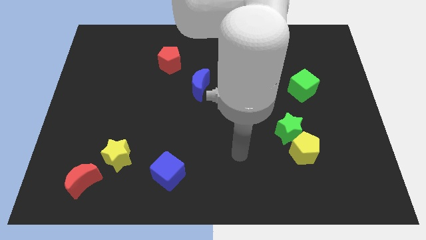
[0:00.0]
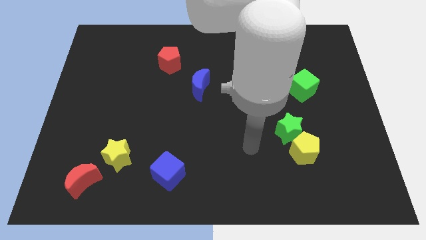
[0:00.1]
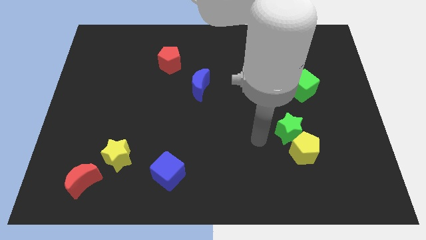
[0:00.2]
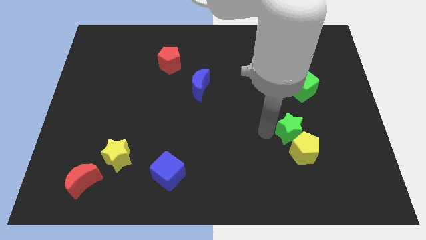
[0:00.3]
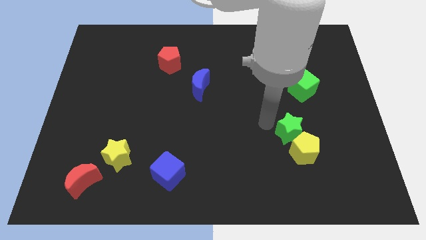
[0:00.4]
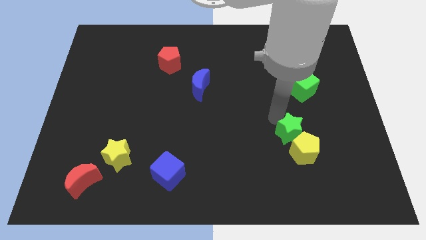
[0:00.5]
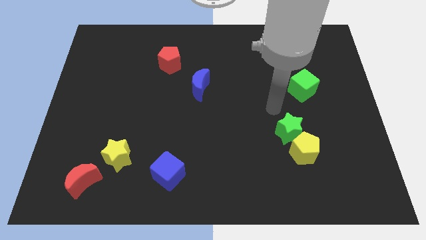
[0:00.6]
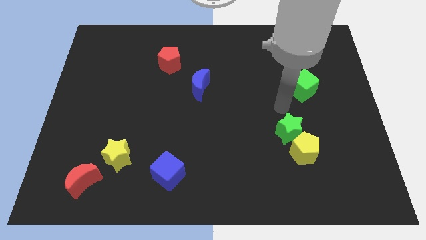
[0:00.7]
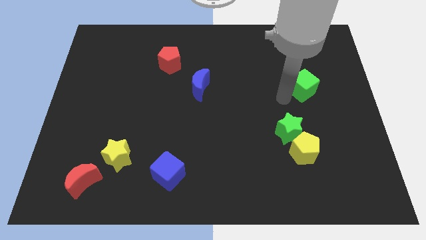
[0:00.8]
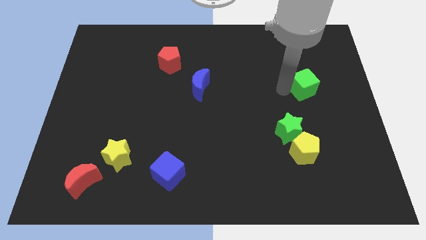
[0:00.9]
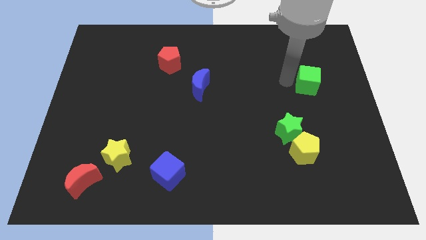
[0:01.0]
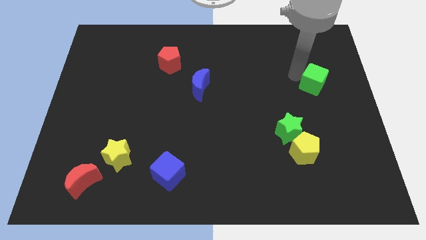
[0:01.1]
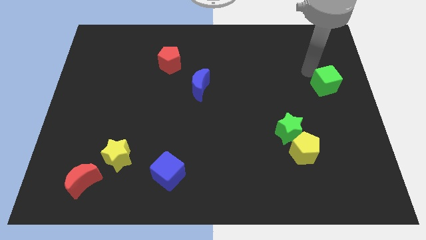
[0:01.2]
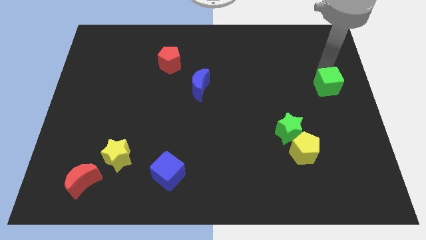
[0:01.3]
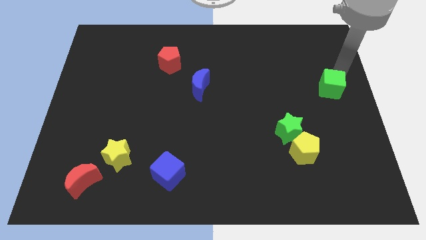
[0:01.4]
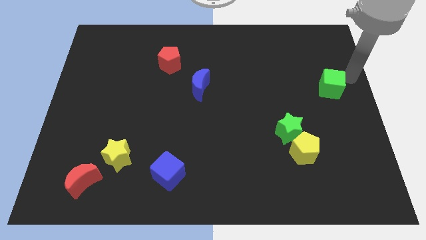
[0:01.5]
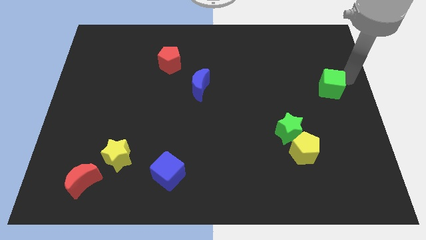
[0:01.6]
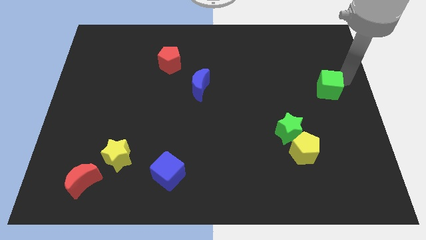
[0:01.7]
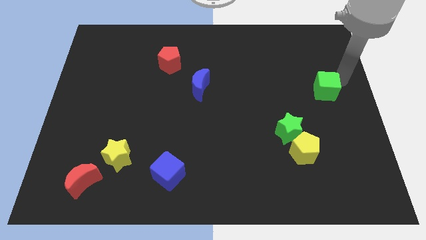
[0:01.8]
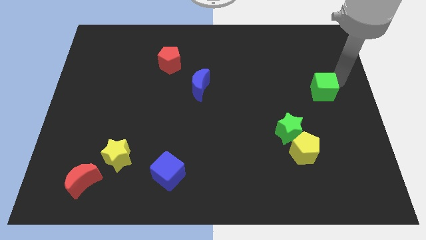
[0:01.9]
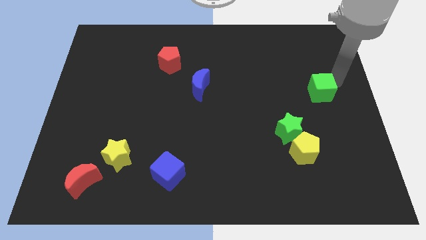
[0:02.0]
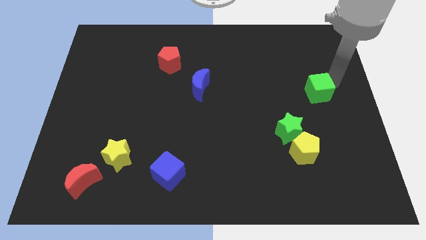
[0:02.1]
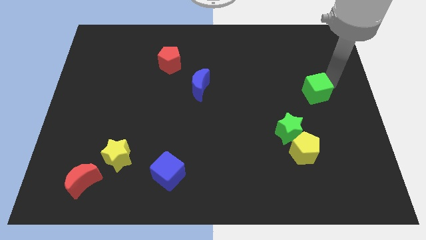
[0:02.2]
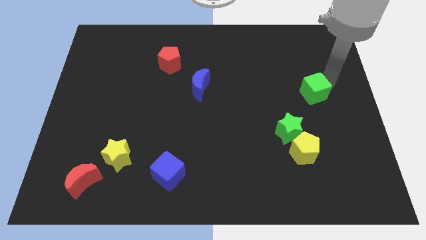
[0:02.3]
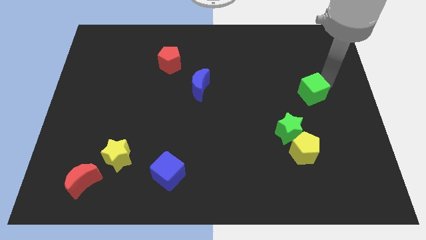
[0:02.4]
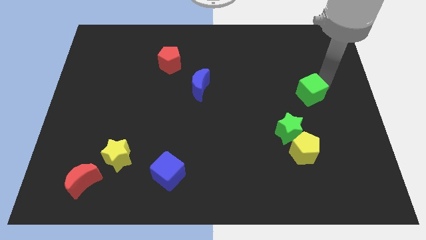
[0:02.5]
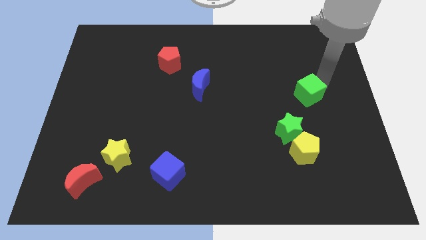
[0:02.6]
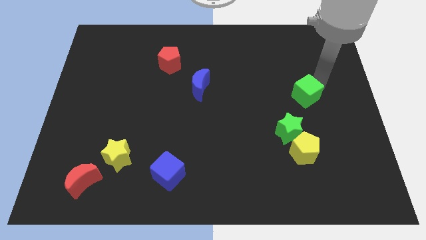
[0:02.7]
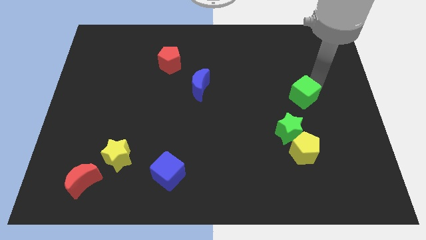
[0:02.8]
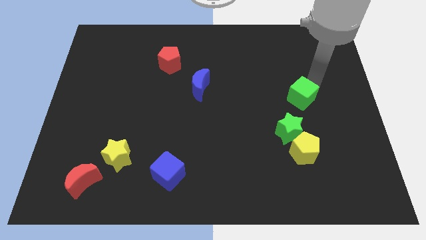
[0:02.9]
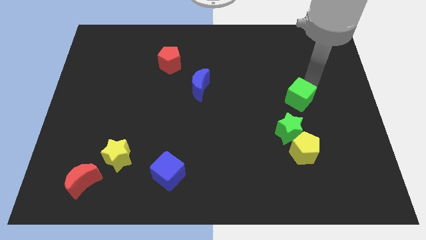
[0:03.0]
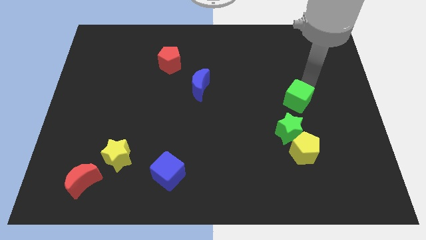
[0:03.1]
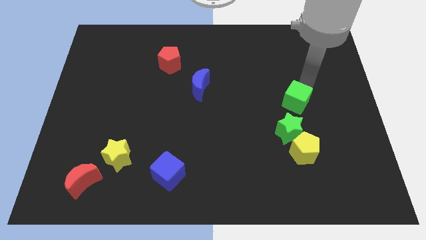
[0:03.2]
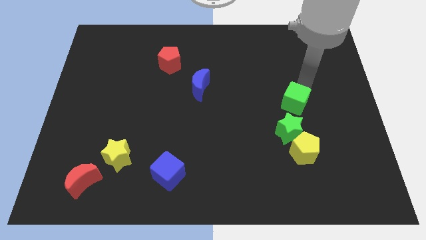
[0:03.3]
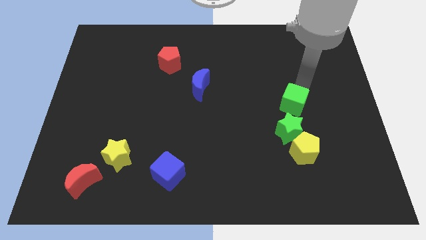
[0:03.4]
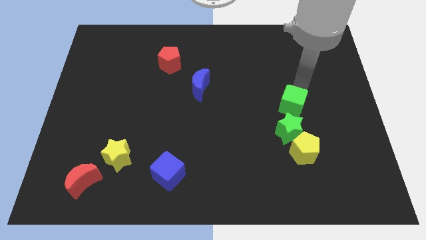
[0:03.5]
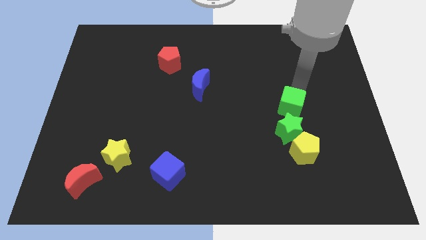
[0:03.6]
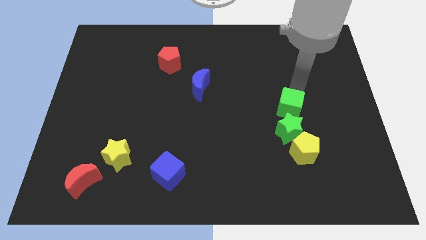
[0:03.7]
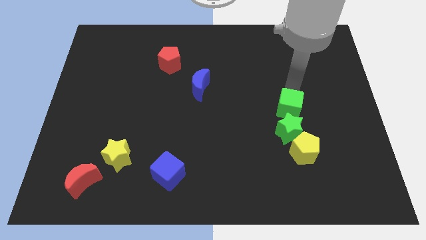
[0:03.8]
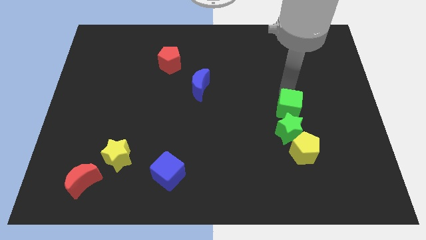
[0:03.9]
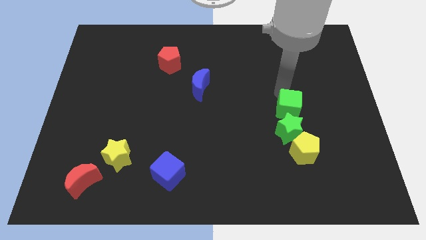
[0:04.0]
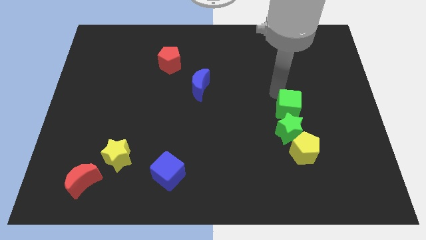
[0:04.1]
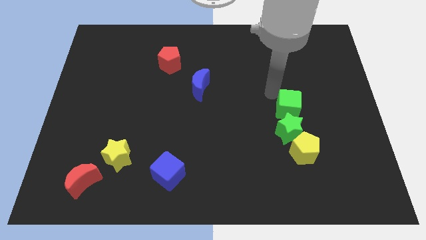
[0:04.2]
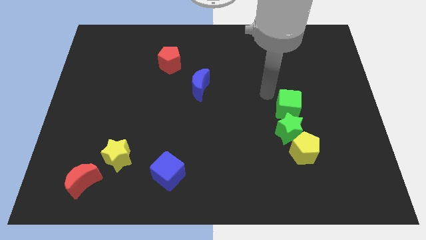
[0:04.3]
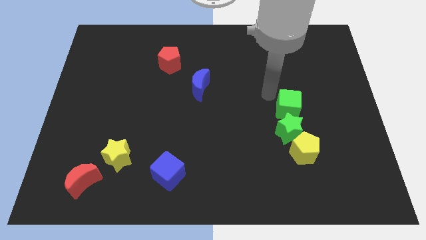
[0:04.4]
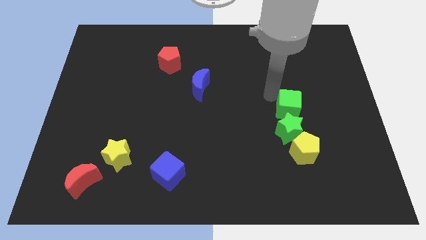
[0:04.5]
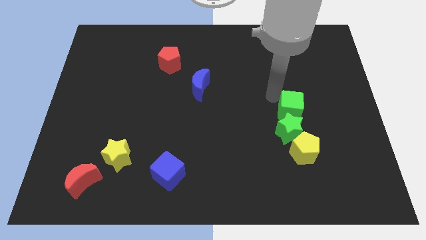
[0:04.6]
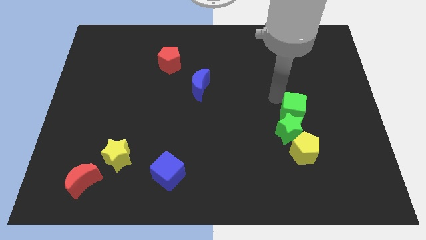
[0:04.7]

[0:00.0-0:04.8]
push the green cube to the green star

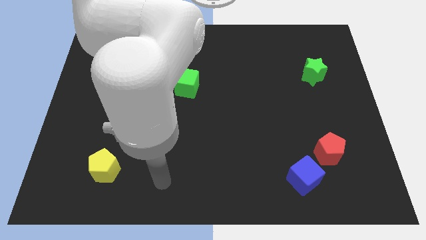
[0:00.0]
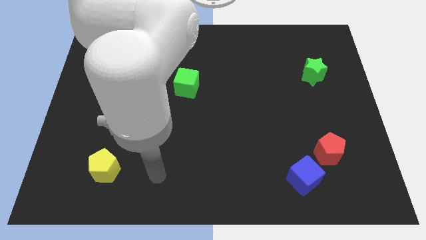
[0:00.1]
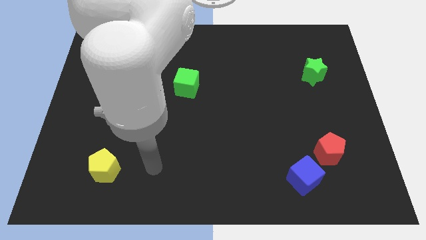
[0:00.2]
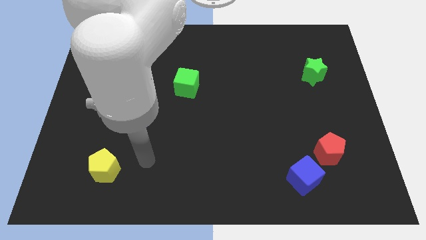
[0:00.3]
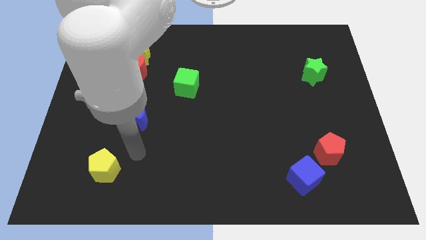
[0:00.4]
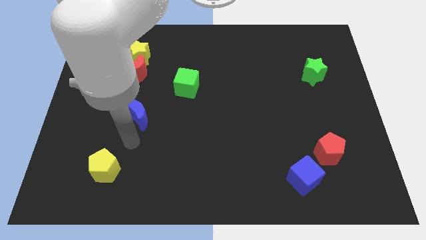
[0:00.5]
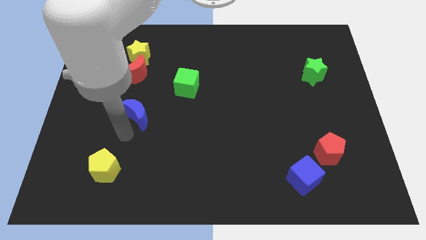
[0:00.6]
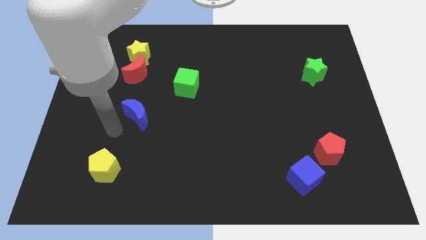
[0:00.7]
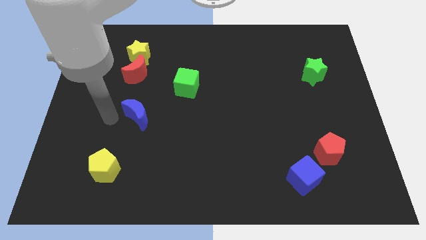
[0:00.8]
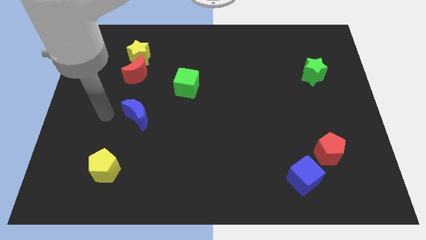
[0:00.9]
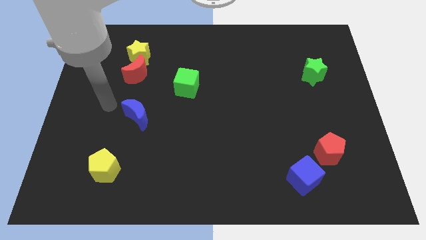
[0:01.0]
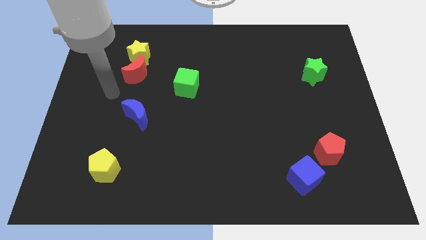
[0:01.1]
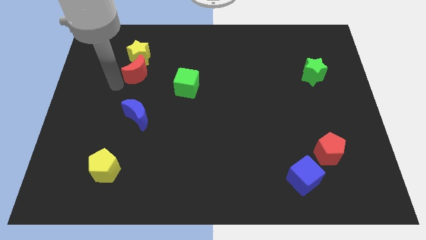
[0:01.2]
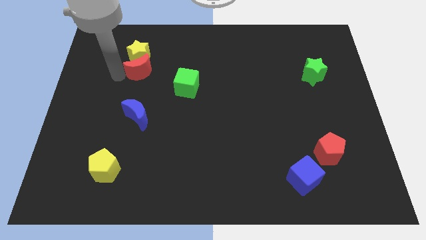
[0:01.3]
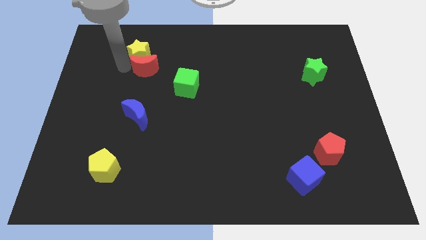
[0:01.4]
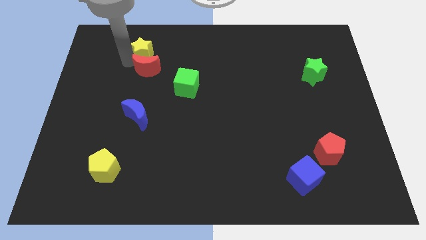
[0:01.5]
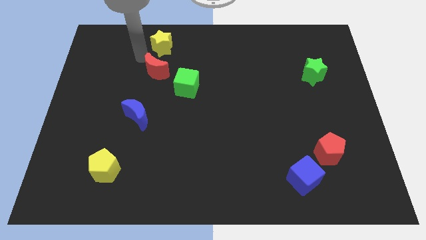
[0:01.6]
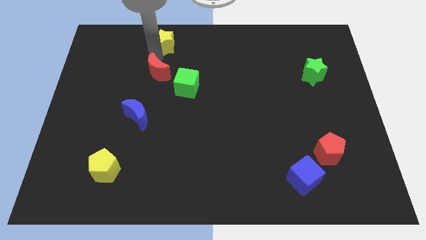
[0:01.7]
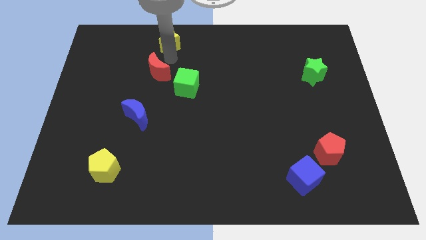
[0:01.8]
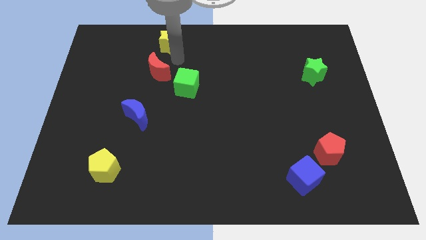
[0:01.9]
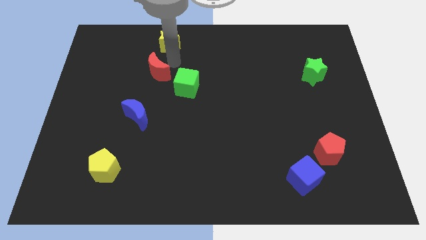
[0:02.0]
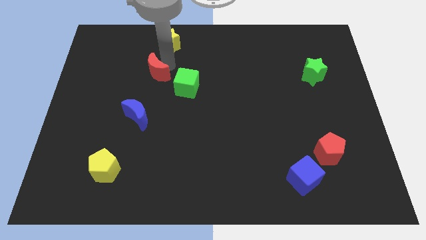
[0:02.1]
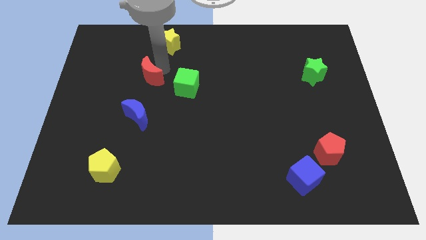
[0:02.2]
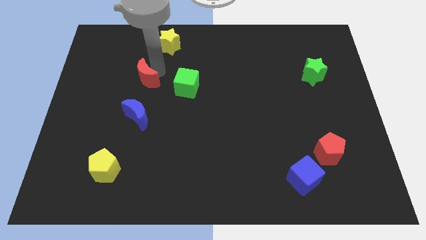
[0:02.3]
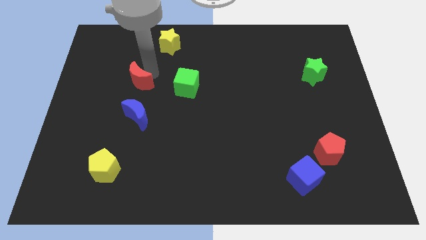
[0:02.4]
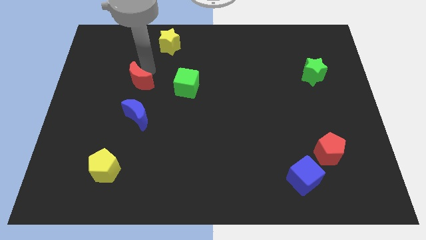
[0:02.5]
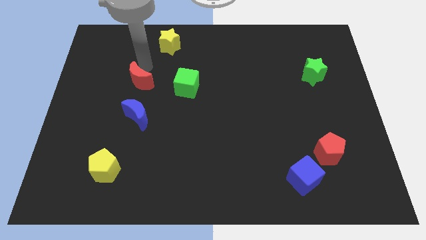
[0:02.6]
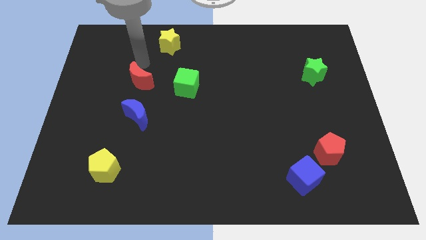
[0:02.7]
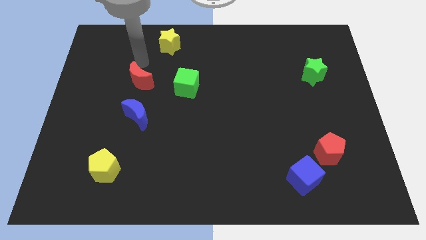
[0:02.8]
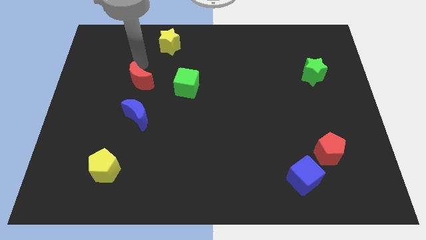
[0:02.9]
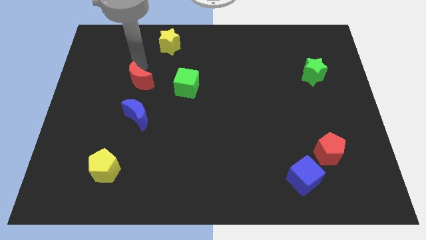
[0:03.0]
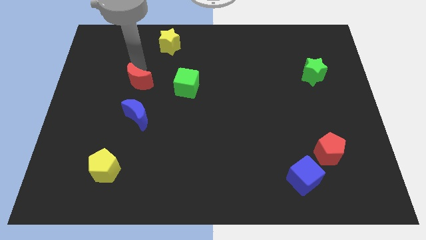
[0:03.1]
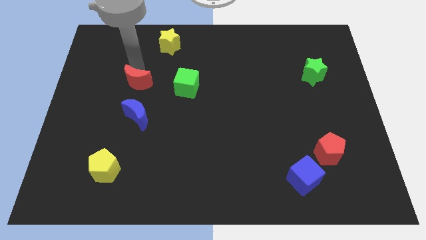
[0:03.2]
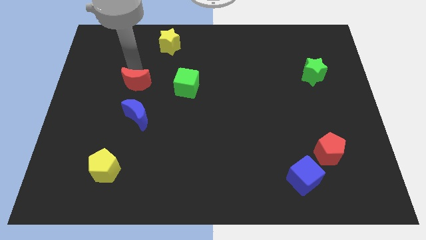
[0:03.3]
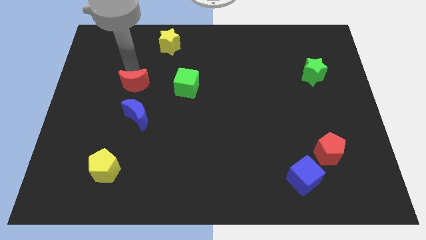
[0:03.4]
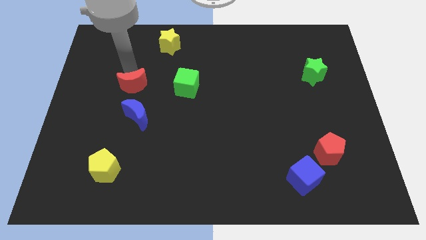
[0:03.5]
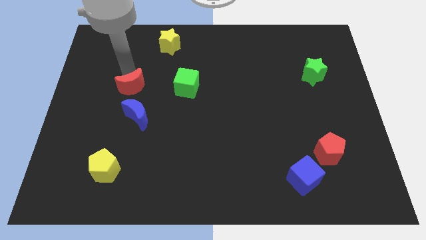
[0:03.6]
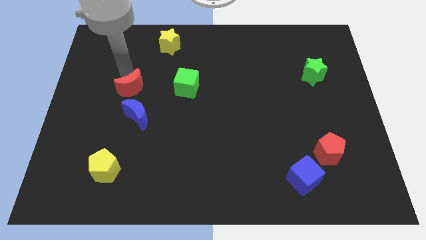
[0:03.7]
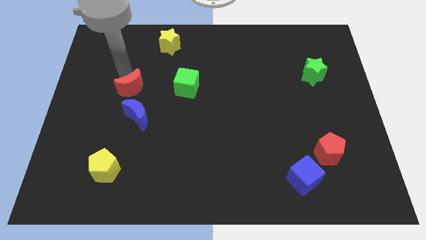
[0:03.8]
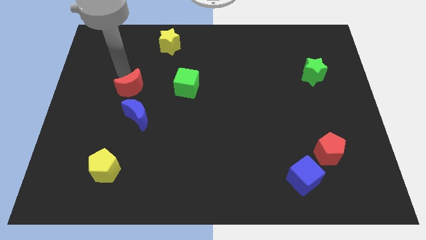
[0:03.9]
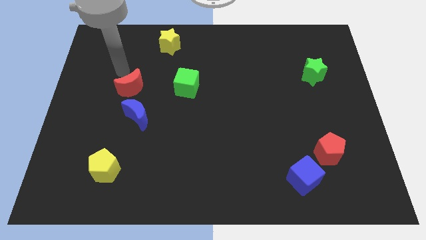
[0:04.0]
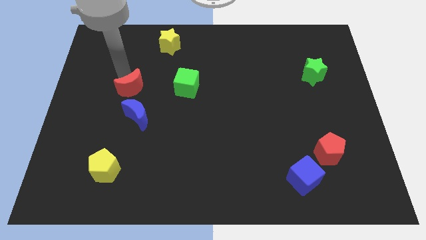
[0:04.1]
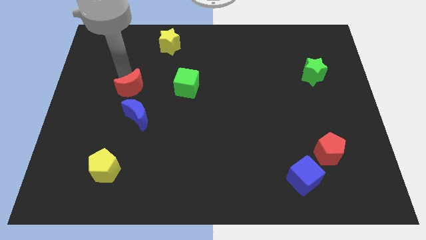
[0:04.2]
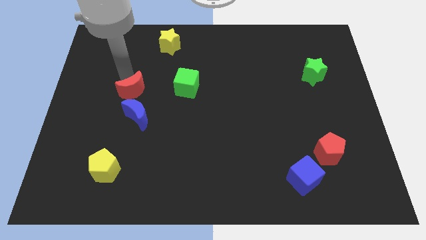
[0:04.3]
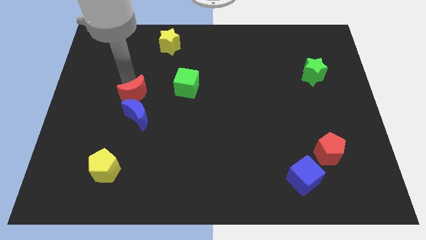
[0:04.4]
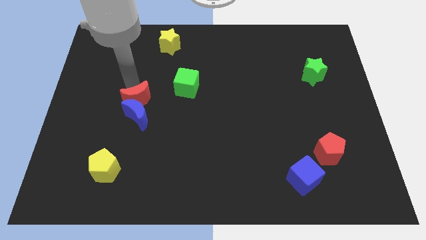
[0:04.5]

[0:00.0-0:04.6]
push the red moon close to the blue moon
